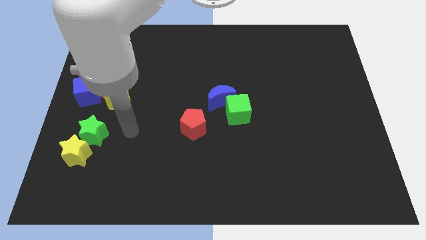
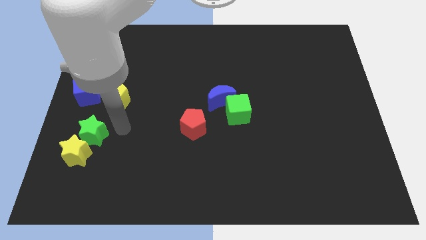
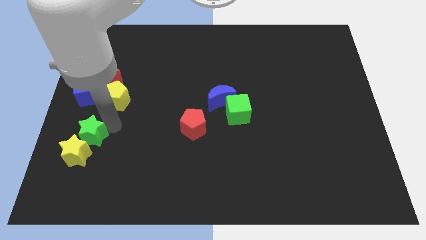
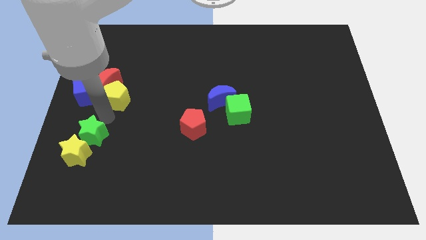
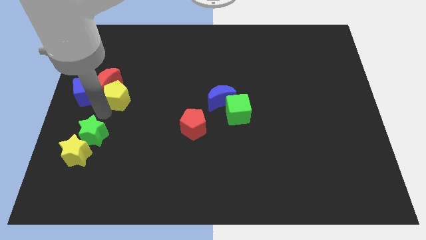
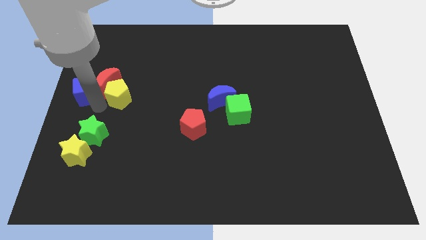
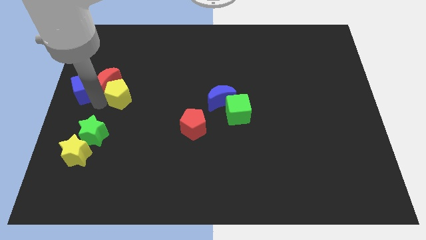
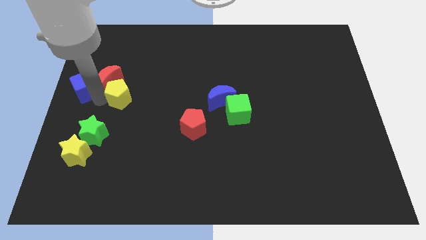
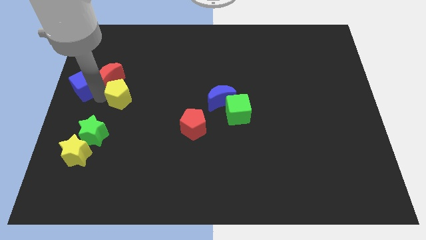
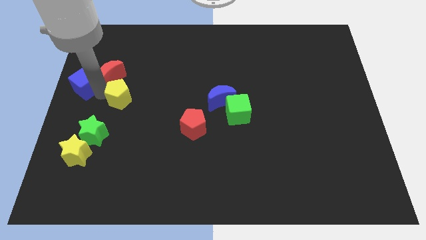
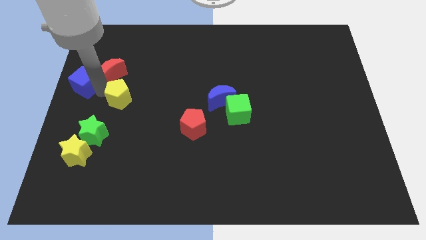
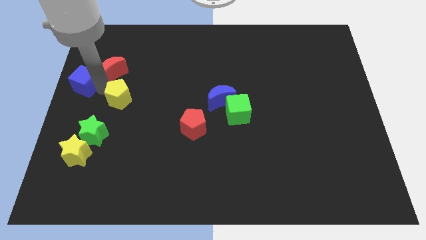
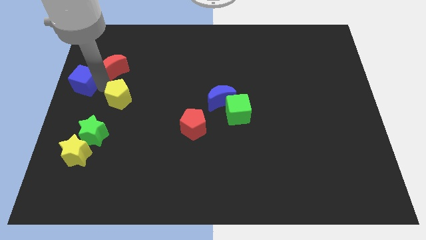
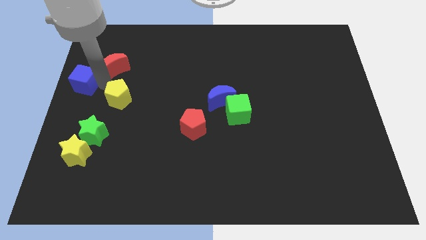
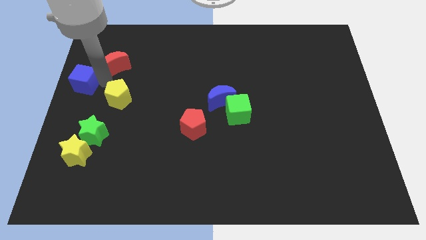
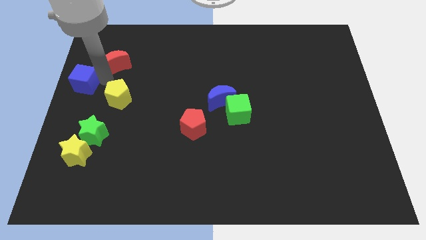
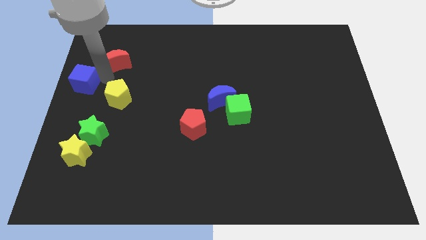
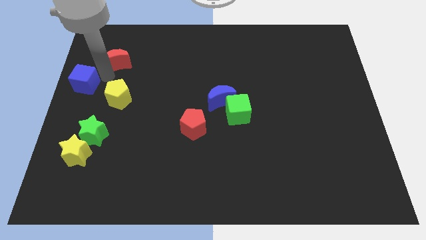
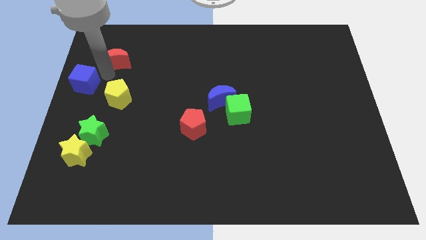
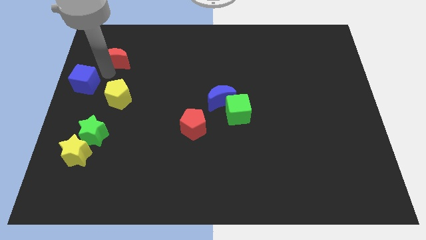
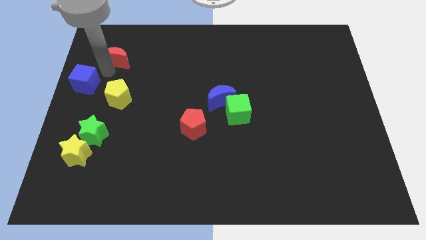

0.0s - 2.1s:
pull the red moon apart from the blue cube and yellow pentagon

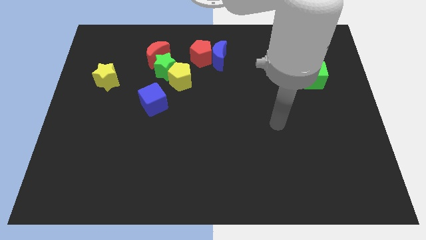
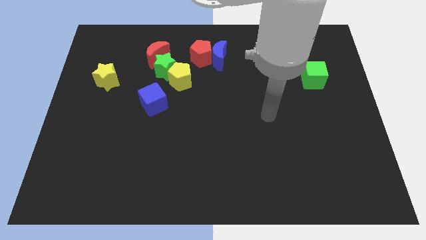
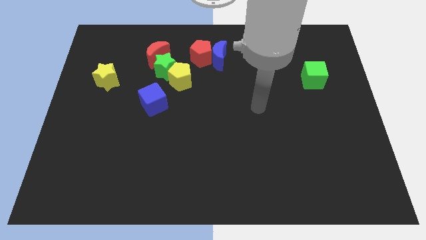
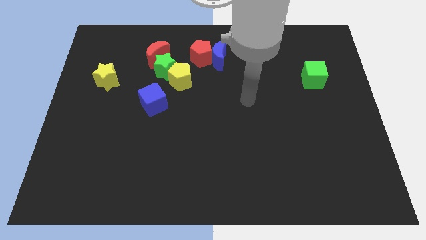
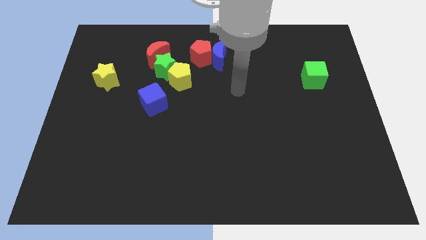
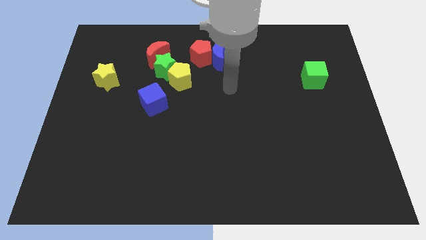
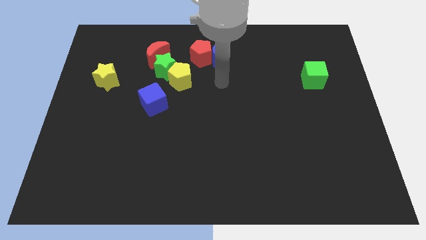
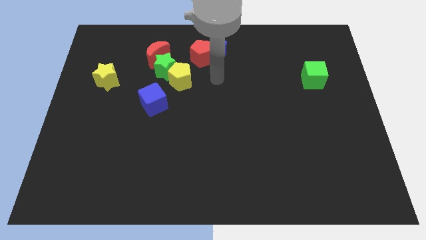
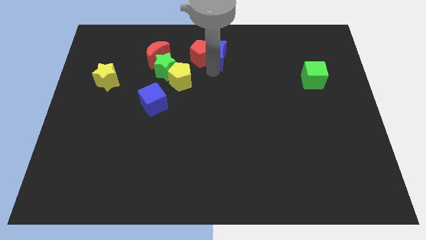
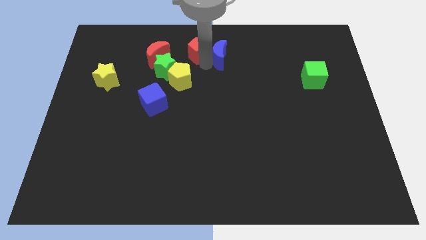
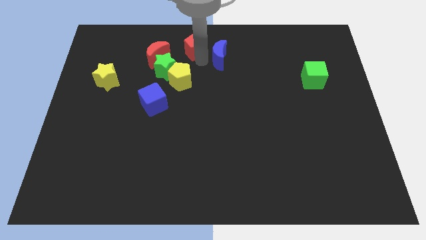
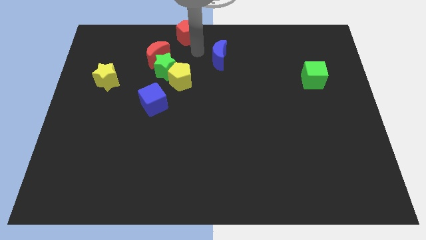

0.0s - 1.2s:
move the blue moon away from the red pentagon

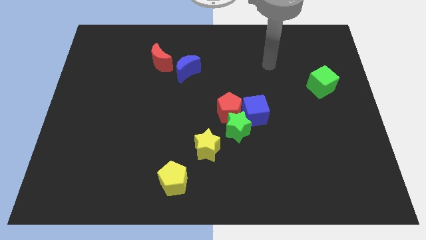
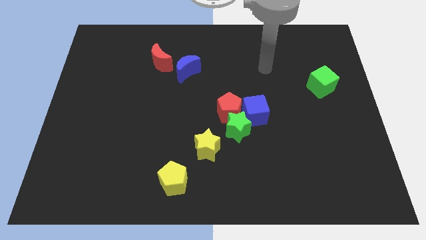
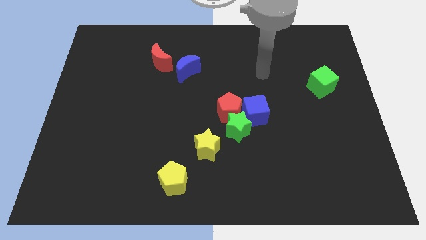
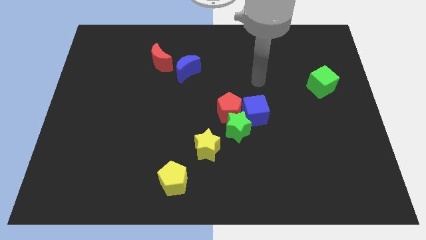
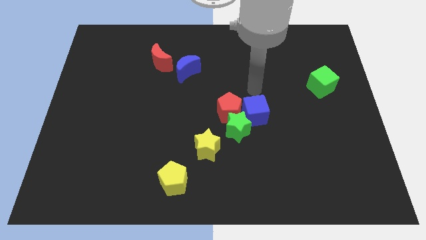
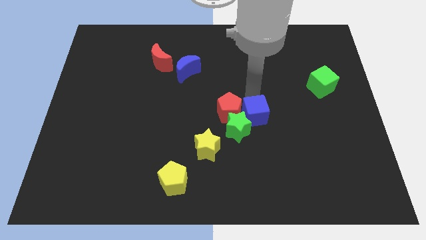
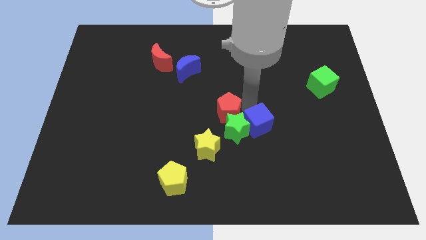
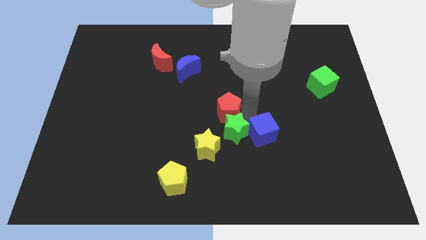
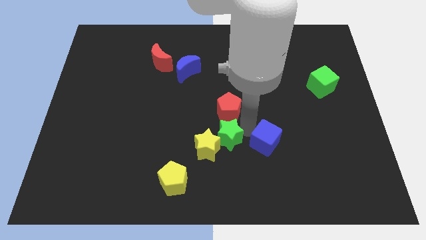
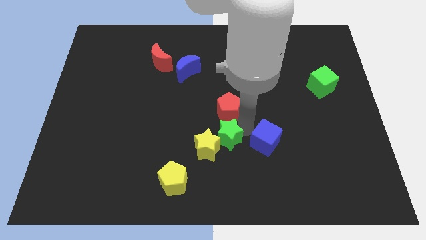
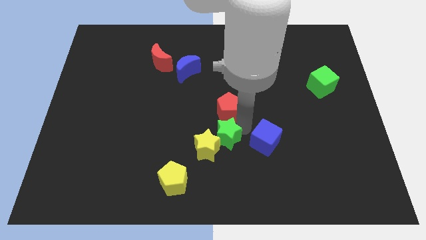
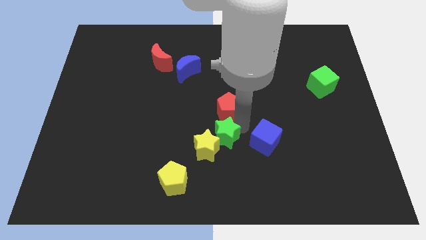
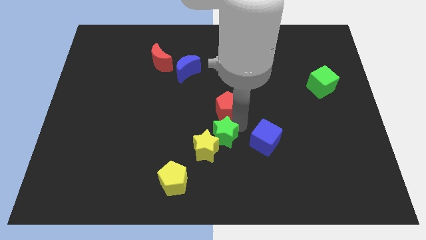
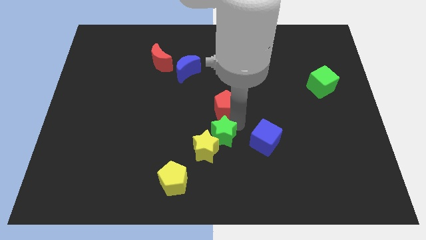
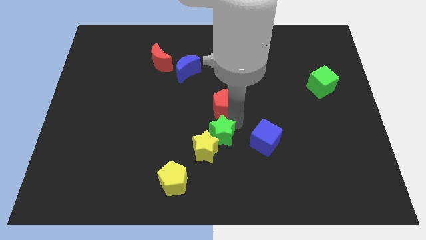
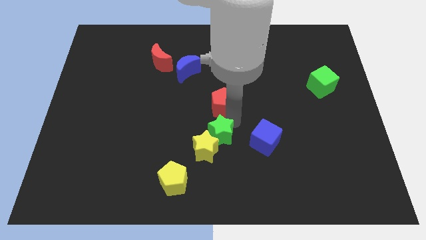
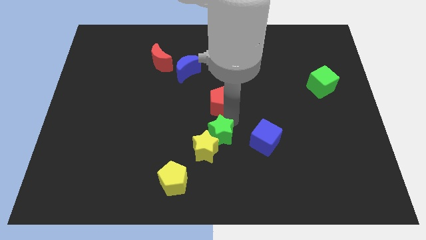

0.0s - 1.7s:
separate the red pentagon from the green star and blue cube

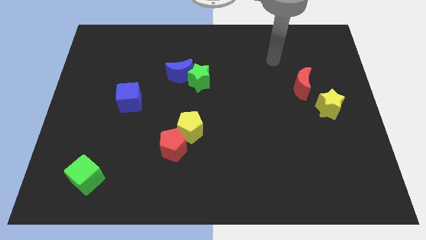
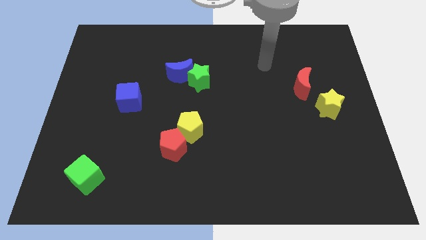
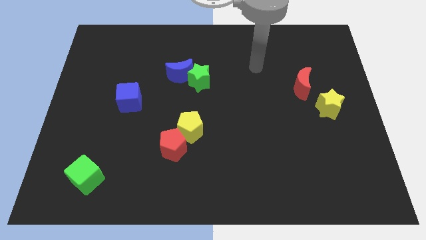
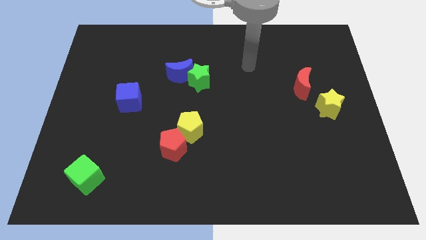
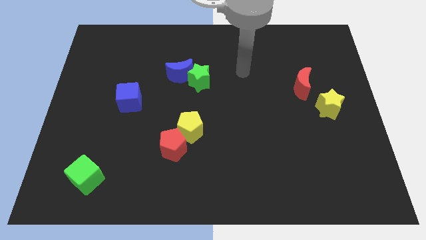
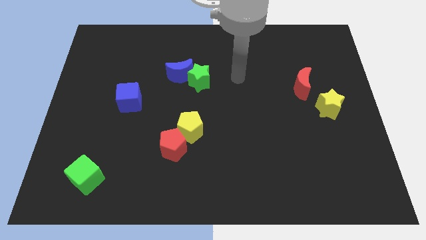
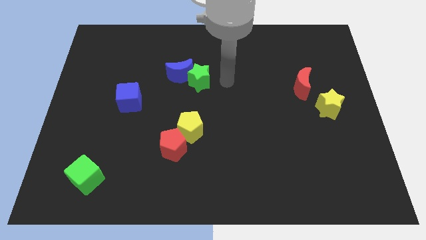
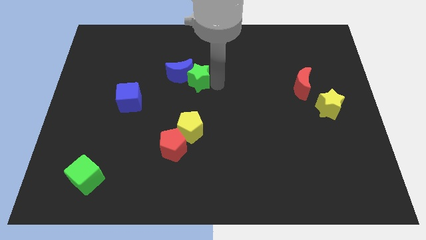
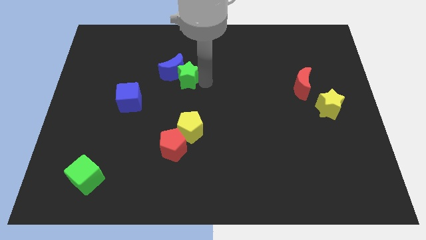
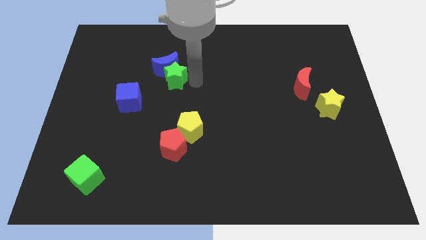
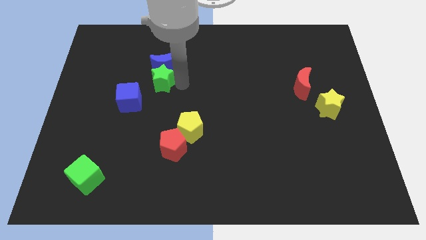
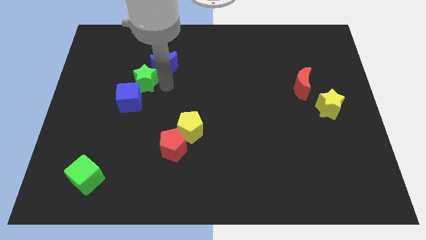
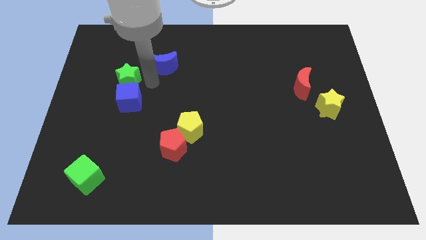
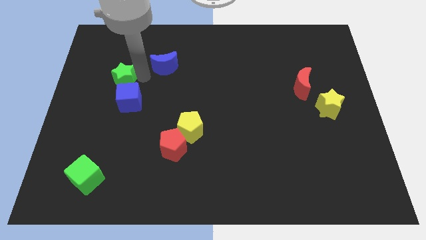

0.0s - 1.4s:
pull the blue moon apart from the green star

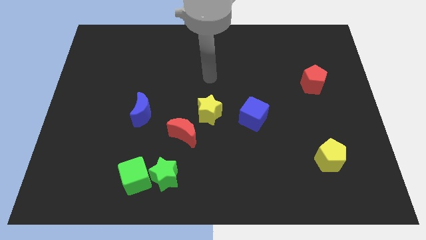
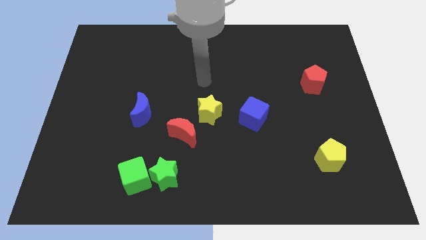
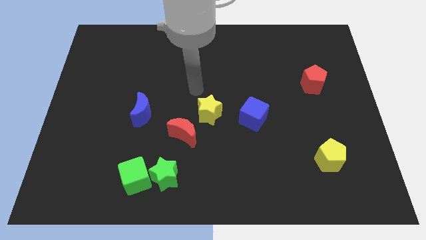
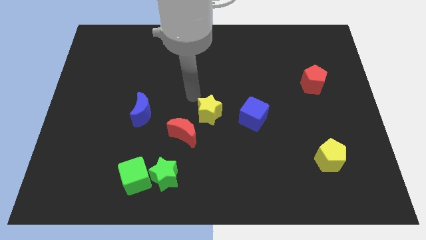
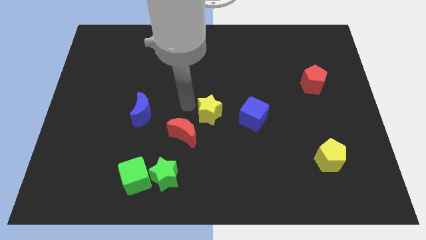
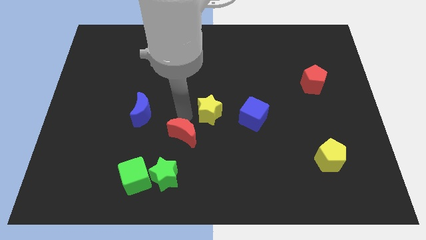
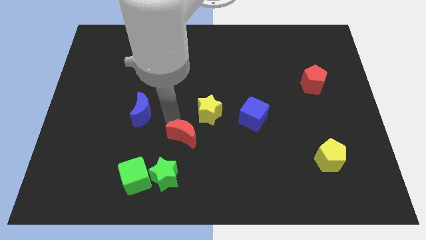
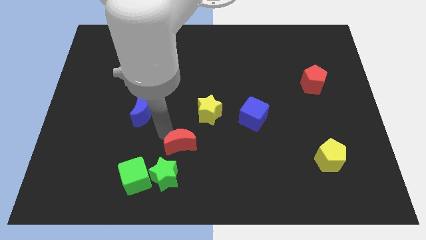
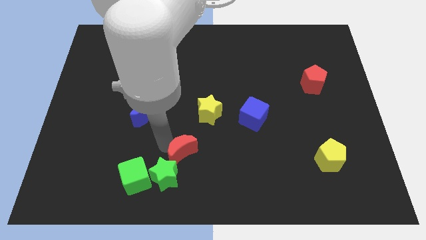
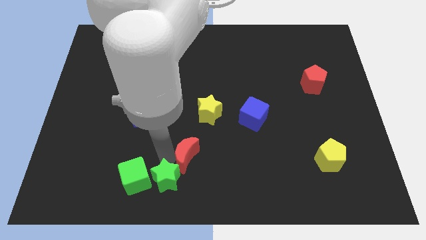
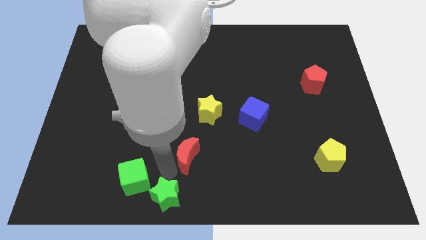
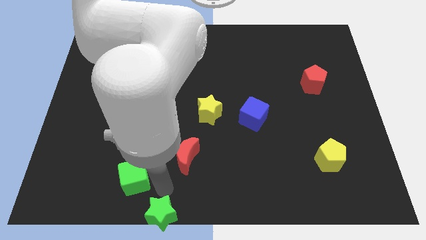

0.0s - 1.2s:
separate the green cube from the green star

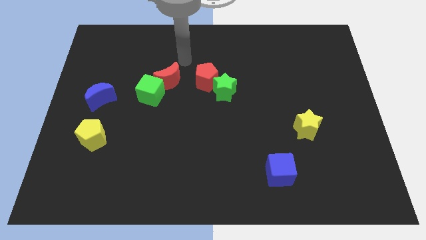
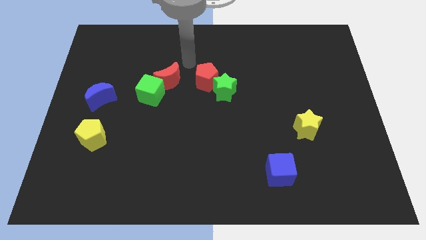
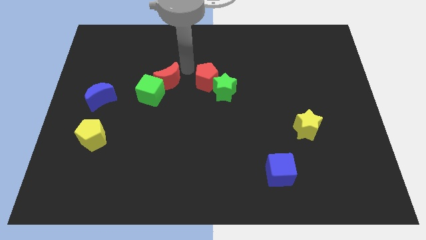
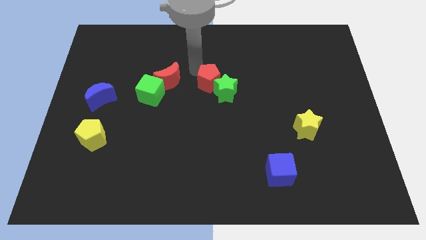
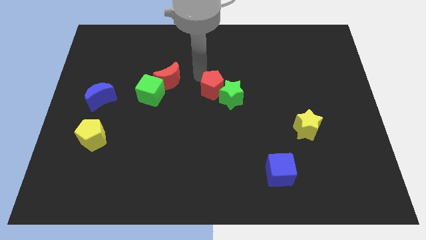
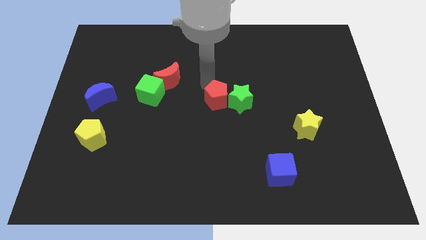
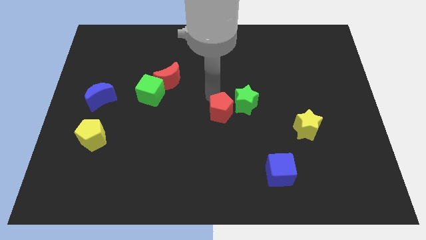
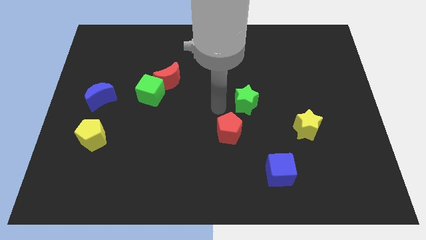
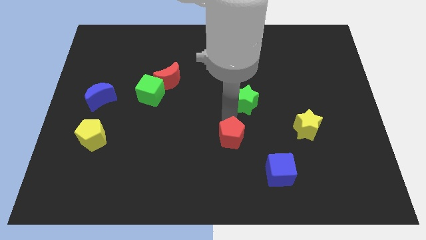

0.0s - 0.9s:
separate the green star from the red pentagon

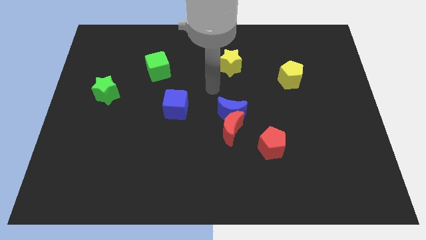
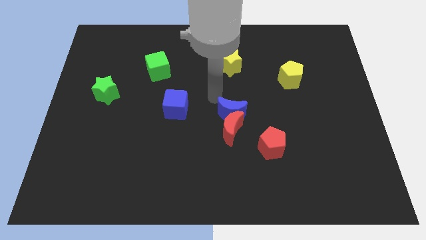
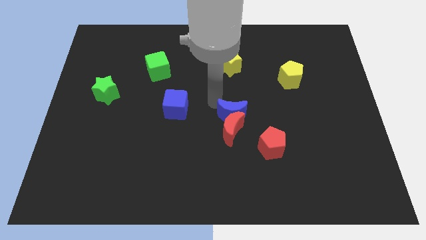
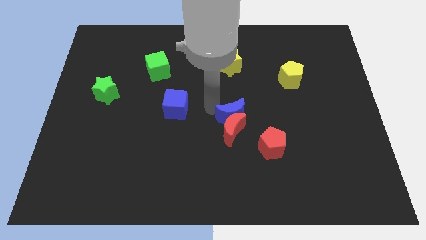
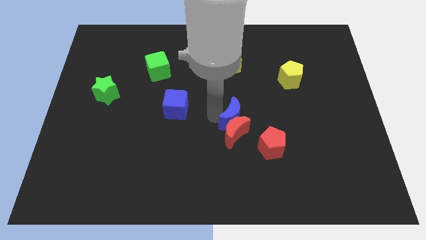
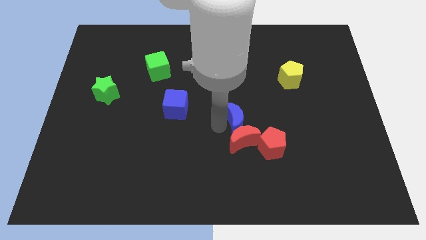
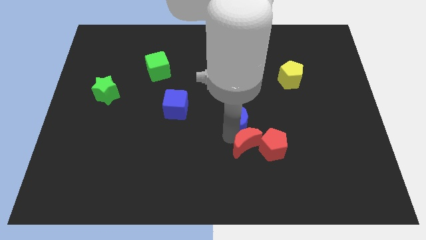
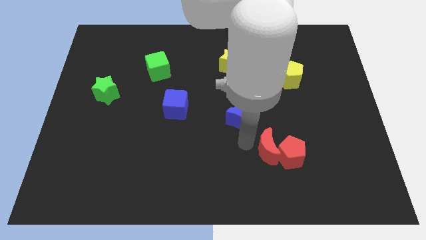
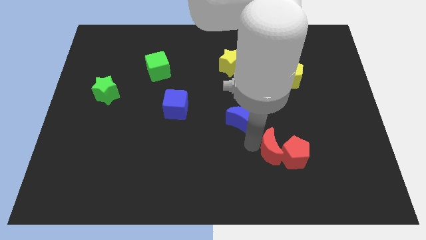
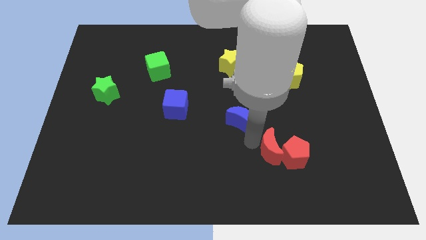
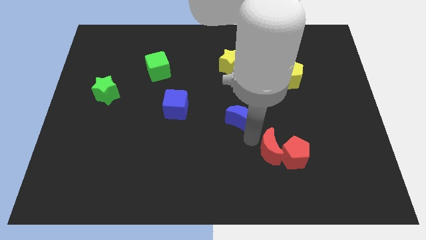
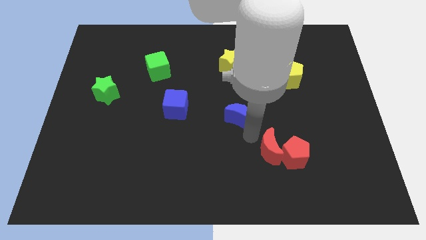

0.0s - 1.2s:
separate the blue moon from the red moon
